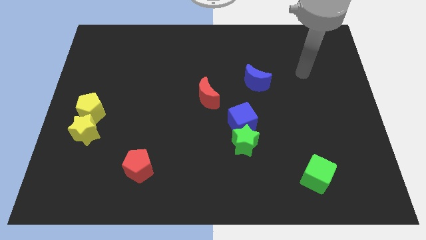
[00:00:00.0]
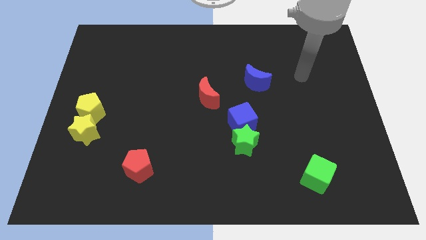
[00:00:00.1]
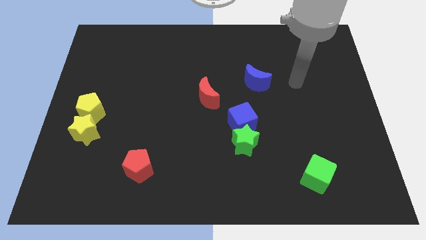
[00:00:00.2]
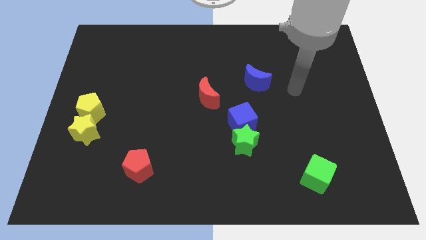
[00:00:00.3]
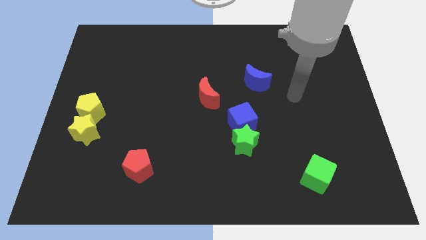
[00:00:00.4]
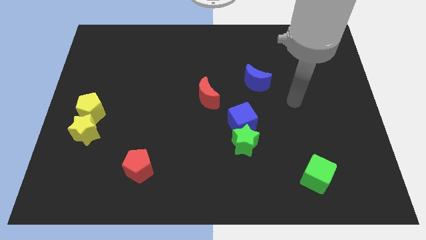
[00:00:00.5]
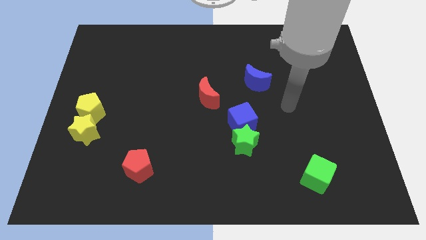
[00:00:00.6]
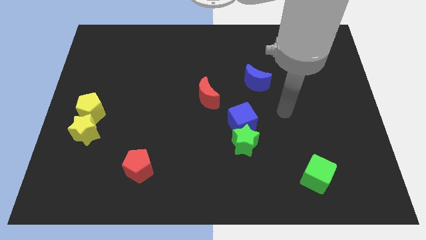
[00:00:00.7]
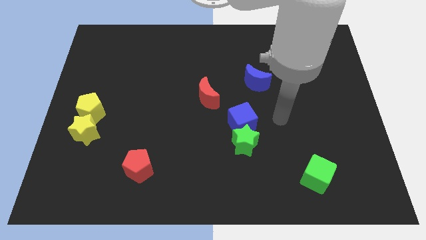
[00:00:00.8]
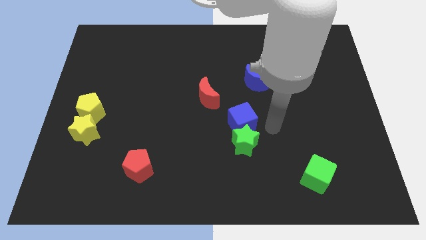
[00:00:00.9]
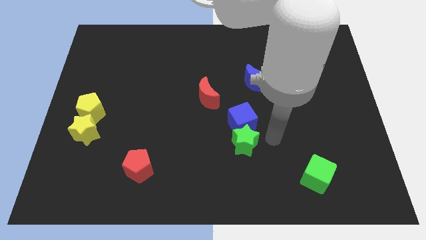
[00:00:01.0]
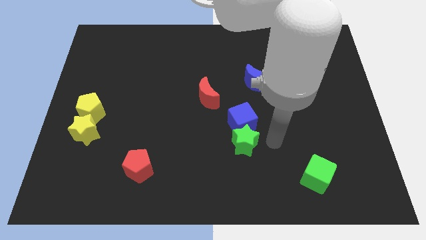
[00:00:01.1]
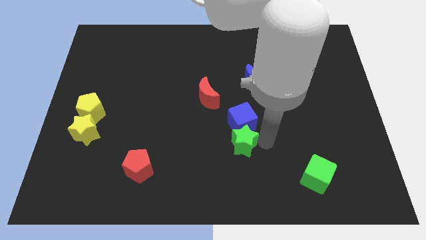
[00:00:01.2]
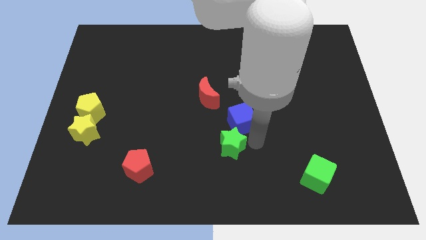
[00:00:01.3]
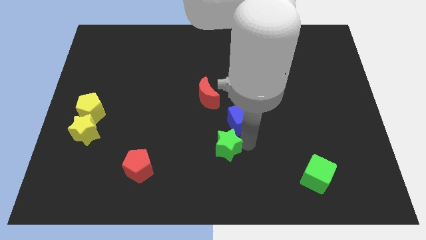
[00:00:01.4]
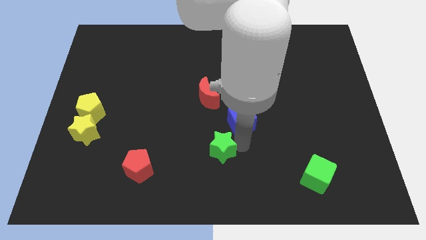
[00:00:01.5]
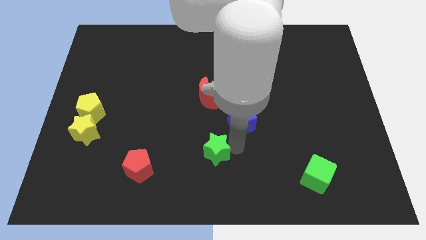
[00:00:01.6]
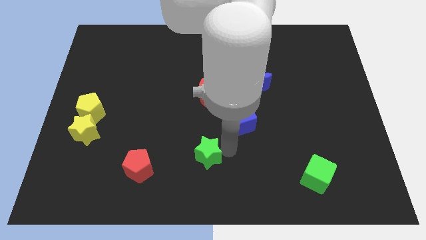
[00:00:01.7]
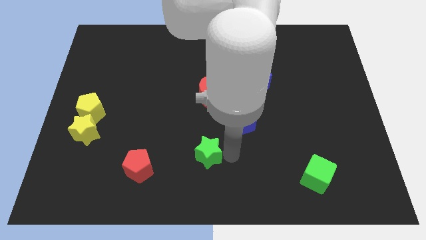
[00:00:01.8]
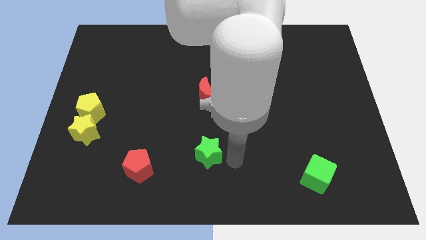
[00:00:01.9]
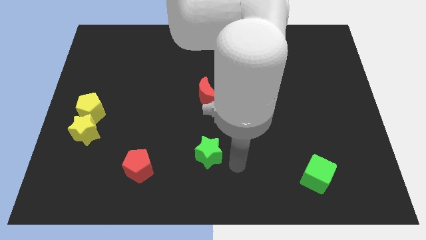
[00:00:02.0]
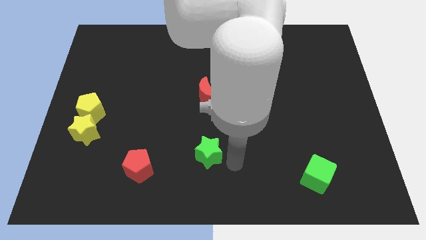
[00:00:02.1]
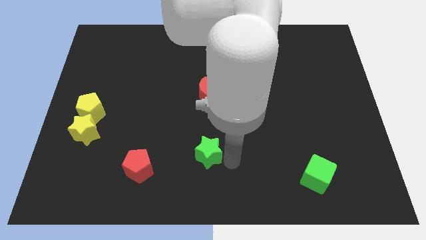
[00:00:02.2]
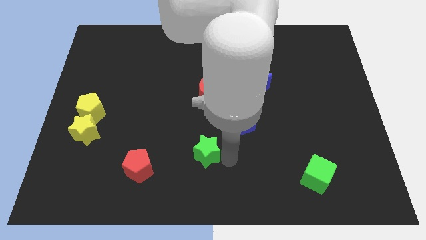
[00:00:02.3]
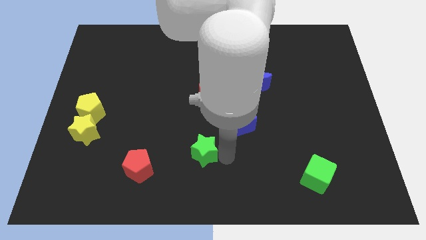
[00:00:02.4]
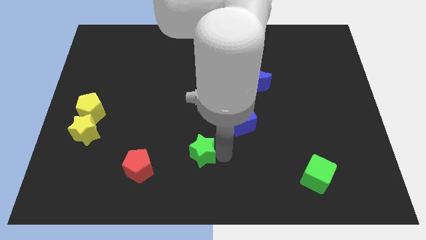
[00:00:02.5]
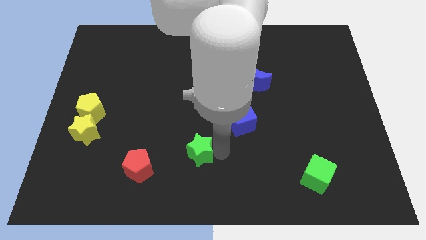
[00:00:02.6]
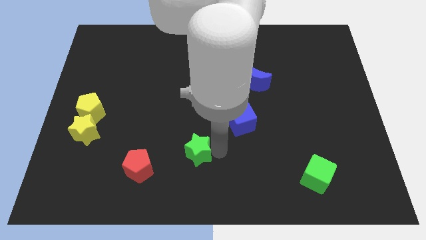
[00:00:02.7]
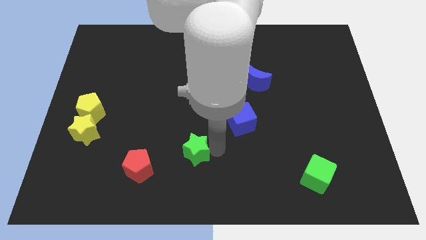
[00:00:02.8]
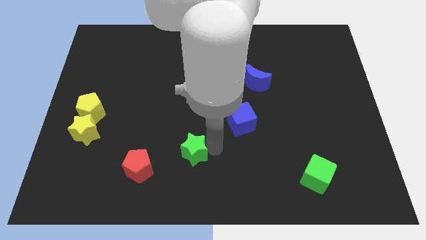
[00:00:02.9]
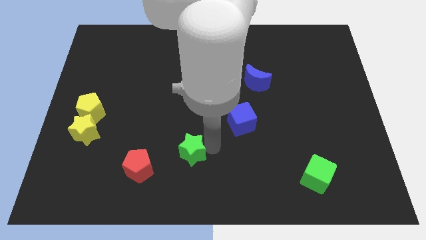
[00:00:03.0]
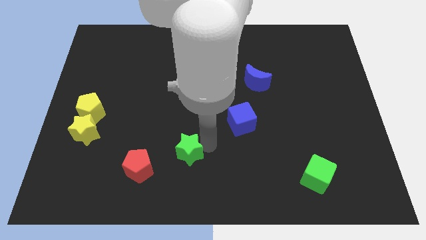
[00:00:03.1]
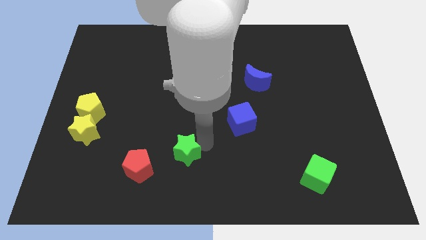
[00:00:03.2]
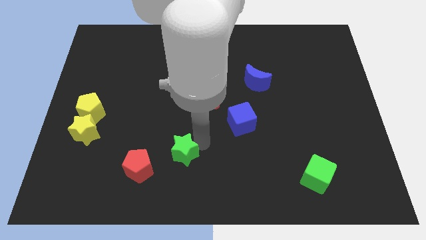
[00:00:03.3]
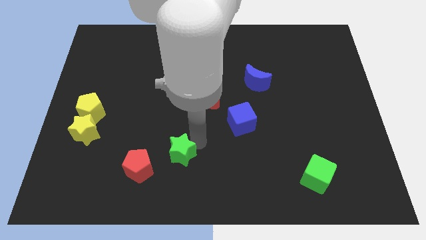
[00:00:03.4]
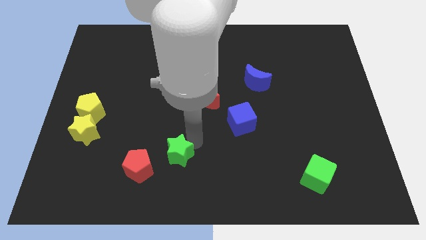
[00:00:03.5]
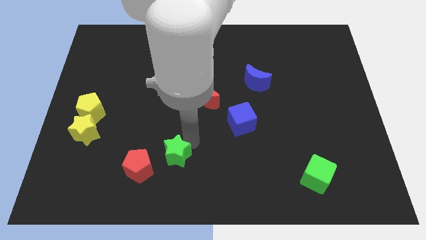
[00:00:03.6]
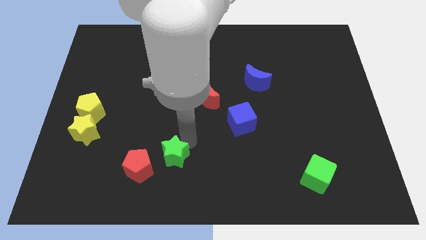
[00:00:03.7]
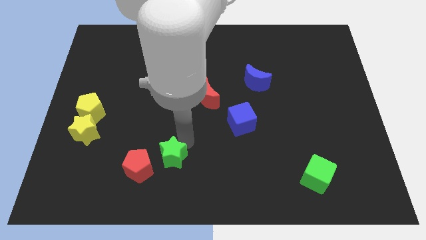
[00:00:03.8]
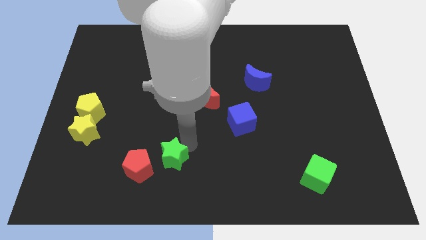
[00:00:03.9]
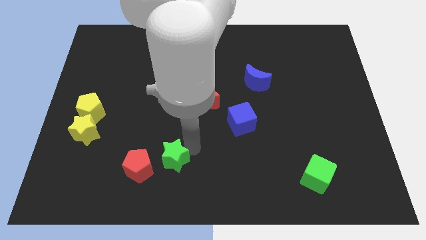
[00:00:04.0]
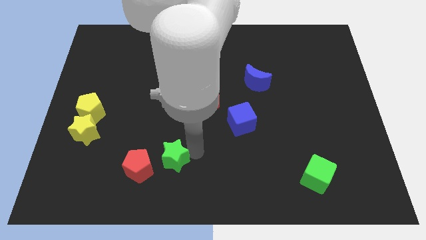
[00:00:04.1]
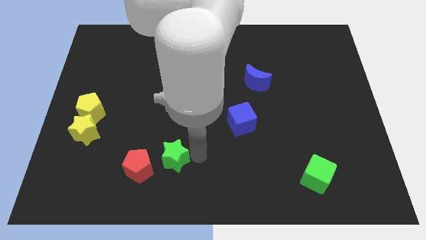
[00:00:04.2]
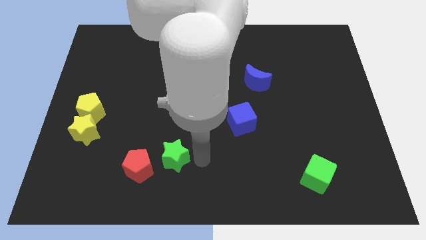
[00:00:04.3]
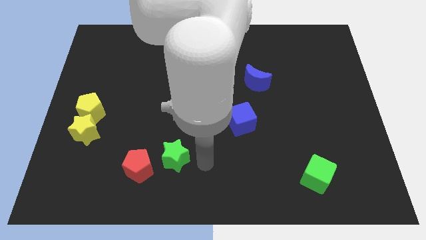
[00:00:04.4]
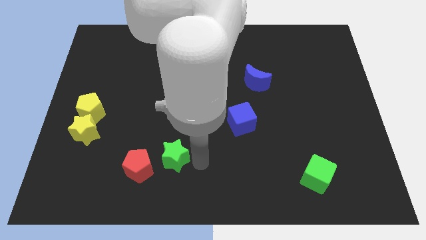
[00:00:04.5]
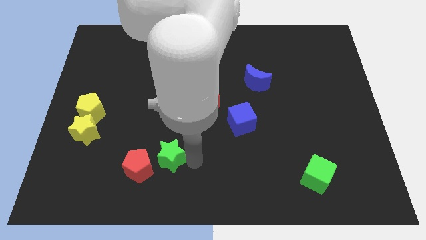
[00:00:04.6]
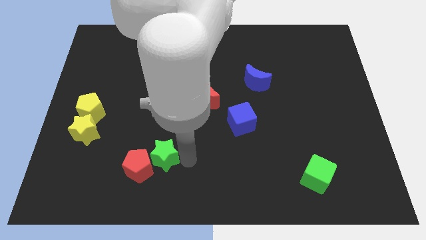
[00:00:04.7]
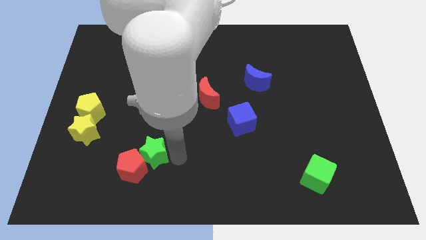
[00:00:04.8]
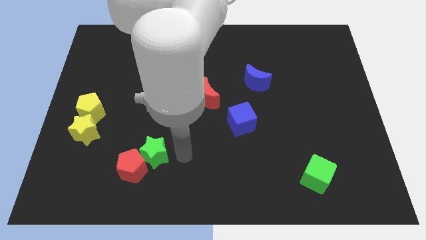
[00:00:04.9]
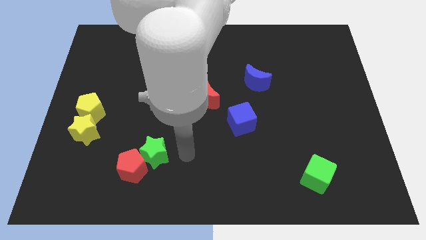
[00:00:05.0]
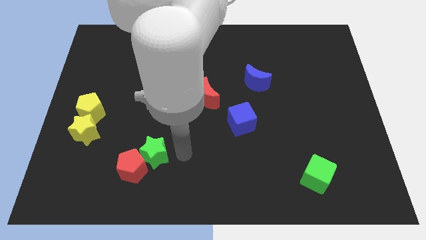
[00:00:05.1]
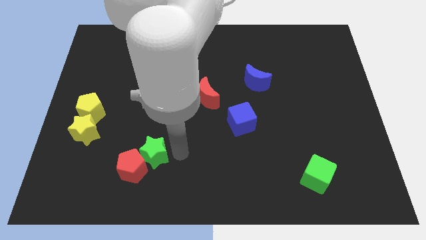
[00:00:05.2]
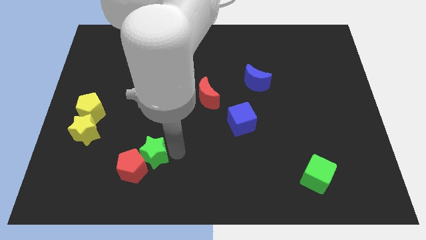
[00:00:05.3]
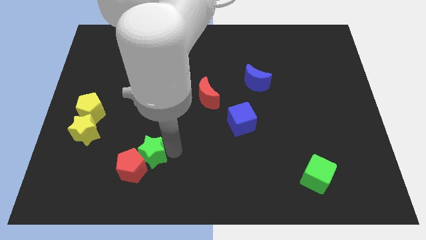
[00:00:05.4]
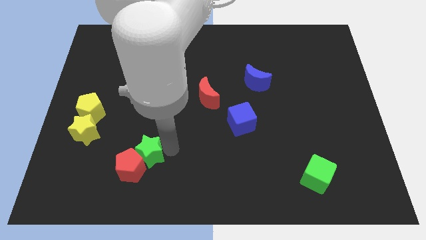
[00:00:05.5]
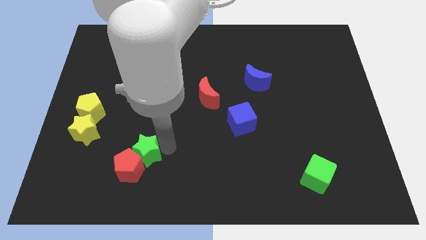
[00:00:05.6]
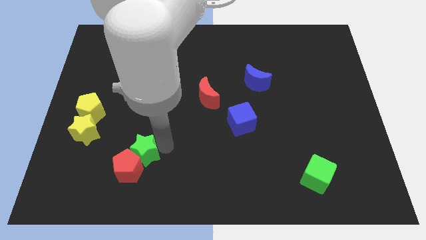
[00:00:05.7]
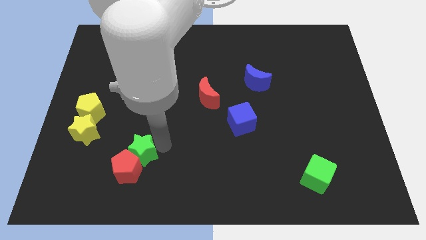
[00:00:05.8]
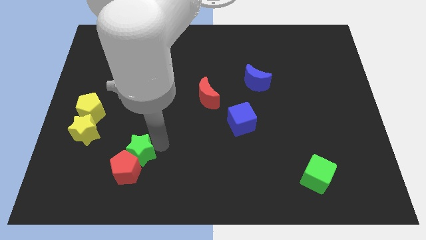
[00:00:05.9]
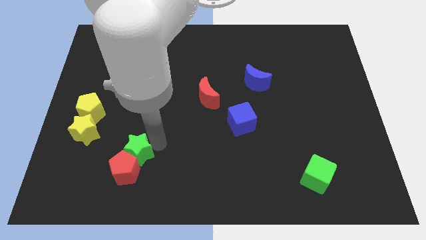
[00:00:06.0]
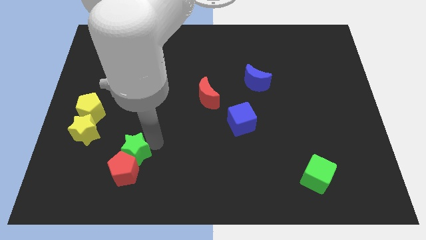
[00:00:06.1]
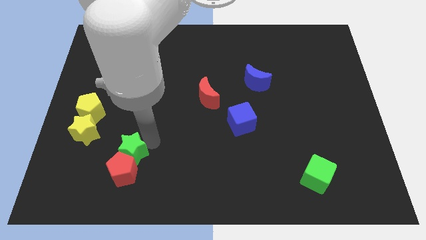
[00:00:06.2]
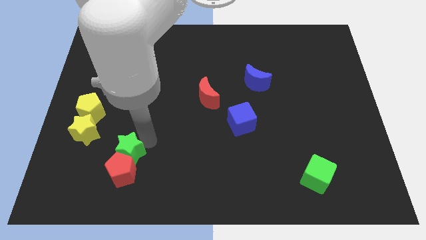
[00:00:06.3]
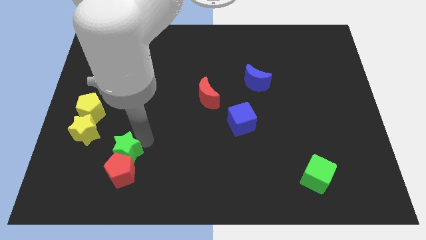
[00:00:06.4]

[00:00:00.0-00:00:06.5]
put the green star diagonally down and to the right of the yellow star
